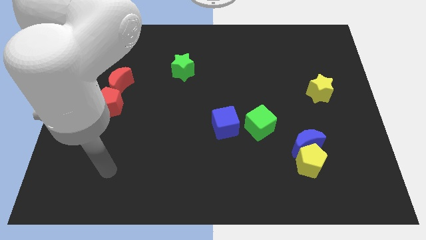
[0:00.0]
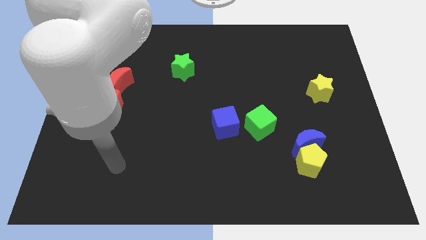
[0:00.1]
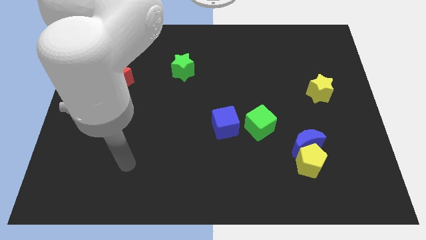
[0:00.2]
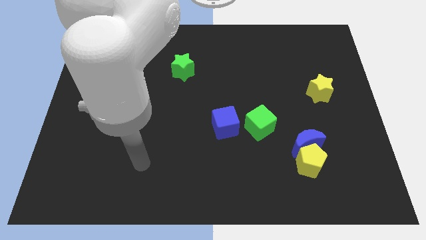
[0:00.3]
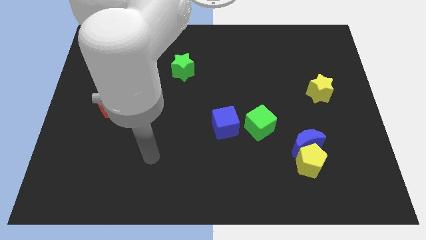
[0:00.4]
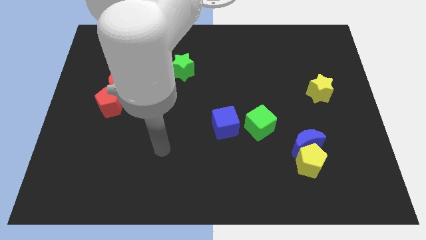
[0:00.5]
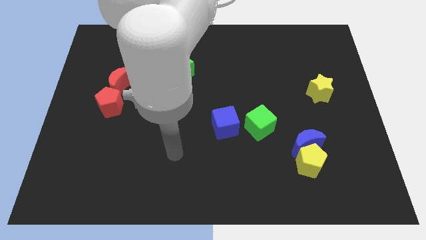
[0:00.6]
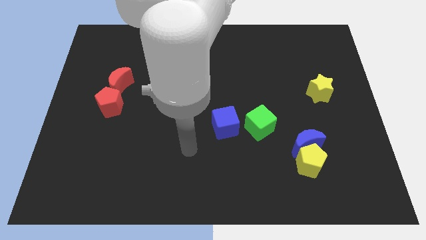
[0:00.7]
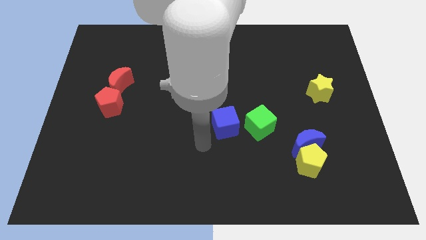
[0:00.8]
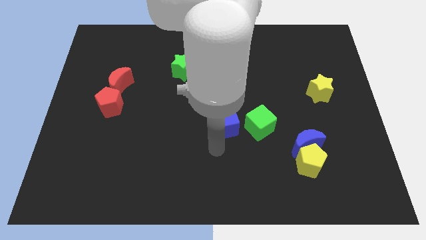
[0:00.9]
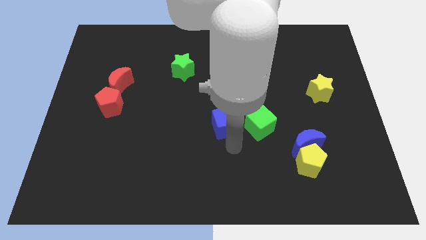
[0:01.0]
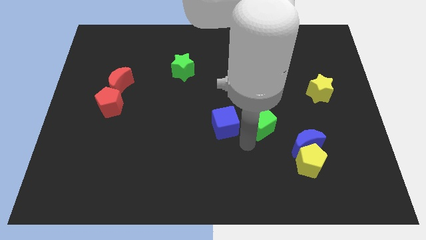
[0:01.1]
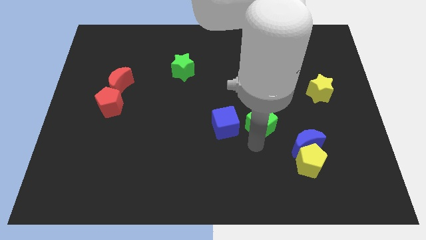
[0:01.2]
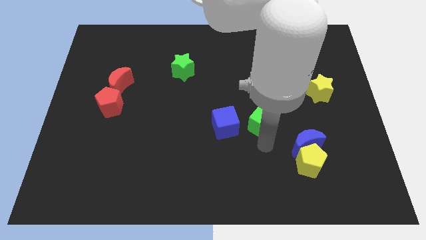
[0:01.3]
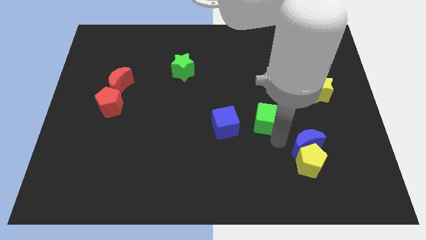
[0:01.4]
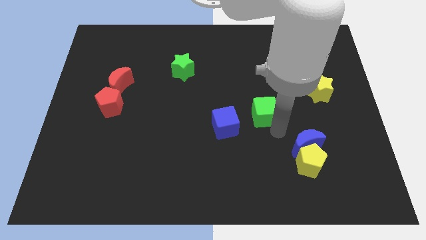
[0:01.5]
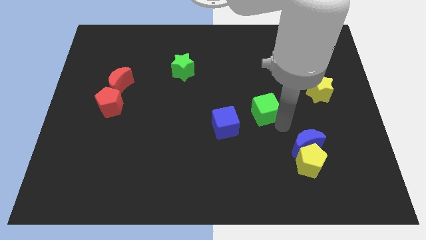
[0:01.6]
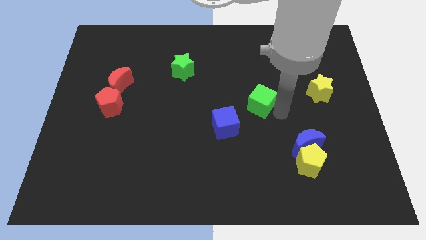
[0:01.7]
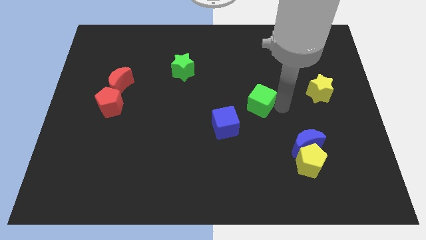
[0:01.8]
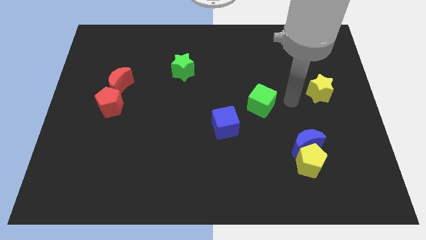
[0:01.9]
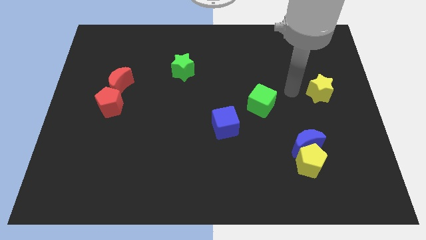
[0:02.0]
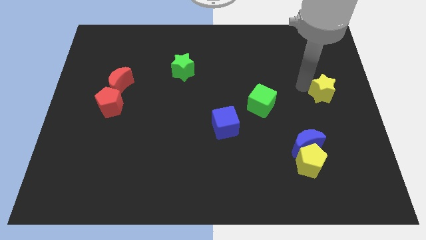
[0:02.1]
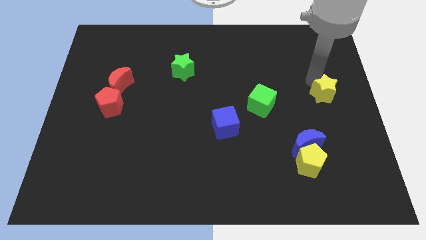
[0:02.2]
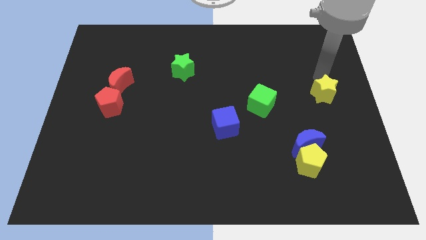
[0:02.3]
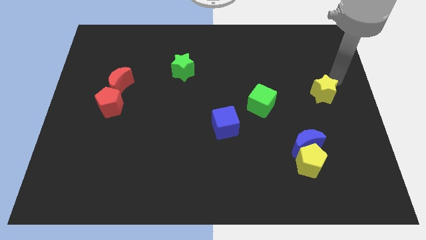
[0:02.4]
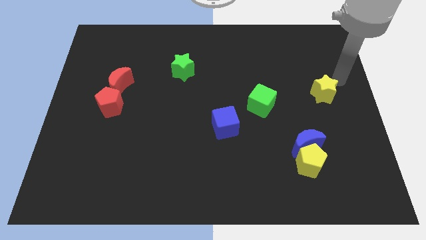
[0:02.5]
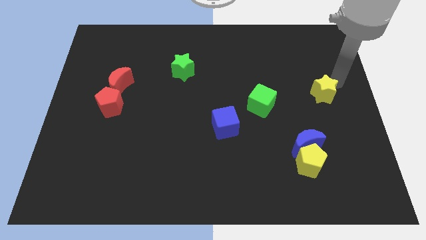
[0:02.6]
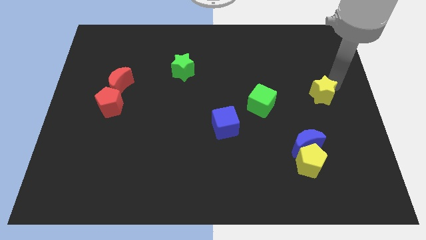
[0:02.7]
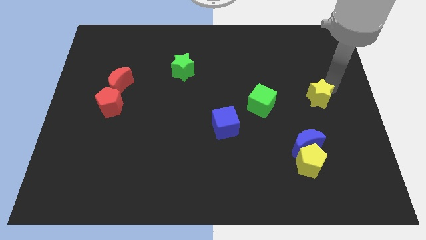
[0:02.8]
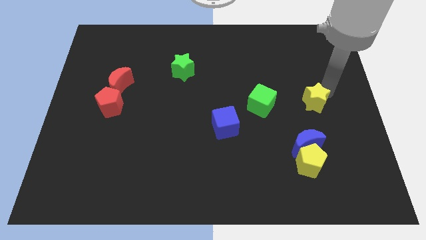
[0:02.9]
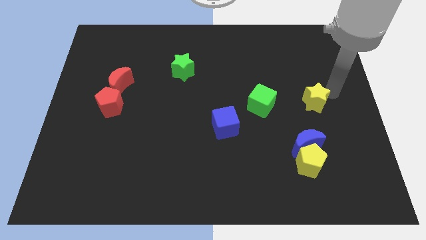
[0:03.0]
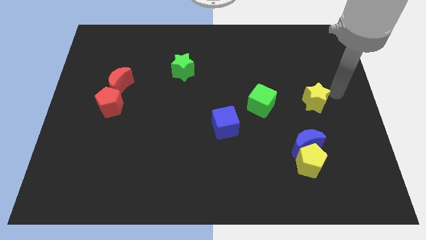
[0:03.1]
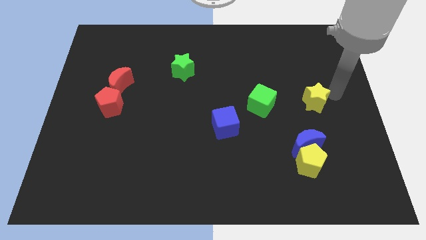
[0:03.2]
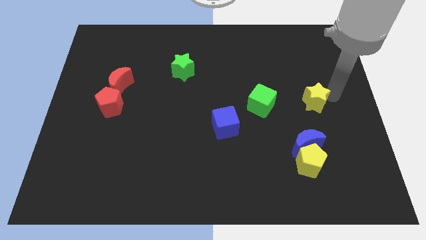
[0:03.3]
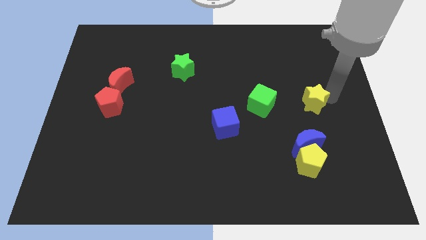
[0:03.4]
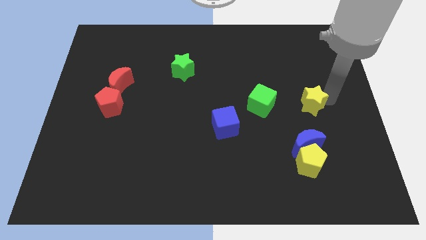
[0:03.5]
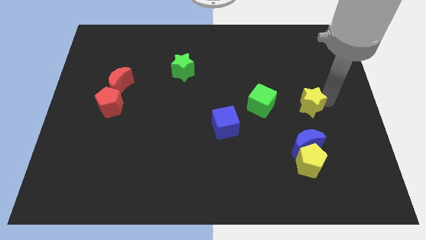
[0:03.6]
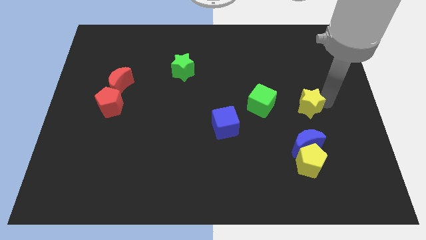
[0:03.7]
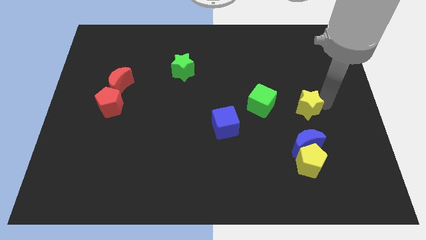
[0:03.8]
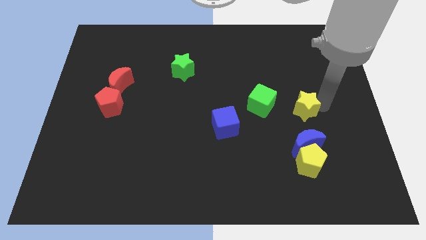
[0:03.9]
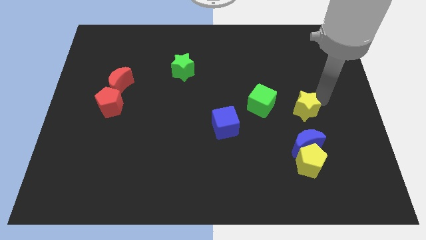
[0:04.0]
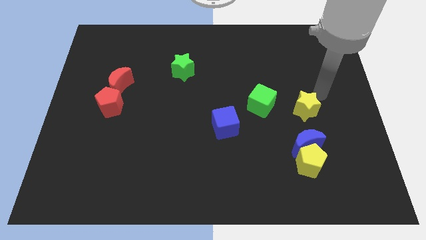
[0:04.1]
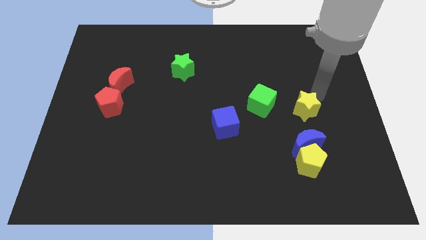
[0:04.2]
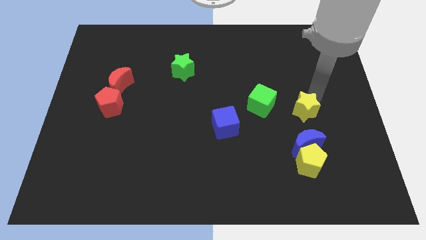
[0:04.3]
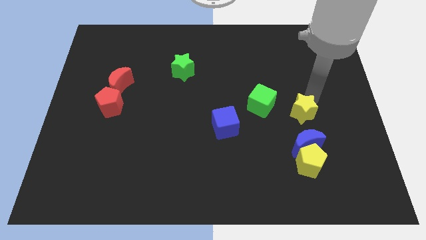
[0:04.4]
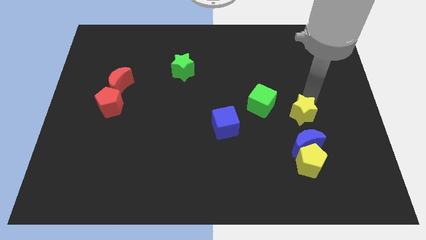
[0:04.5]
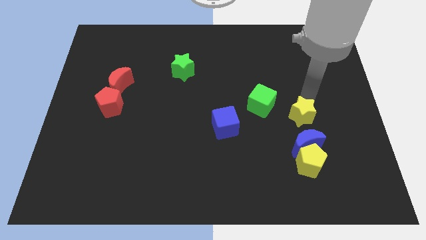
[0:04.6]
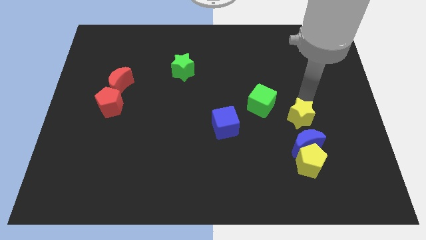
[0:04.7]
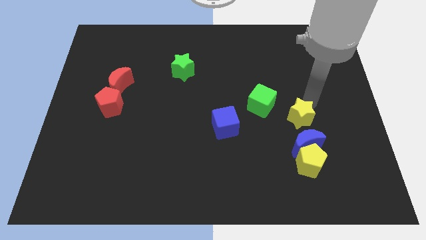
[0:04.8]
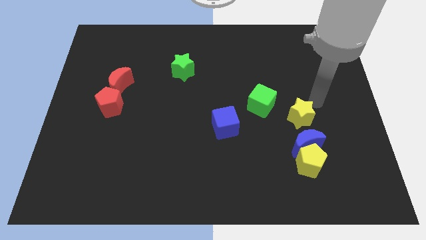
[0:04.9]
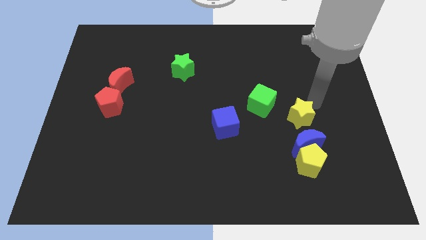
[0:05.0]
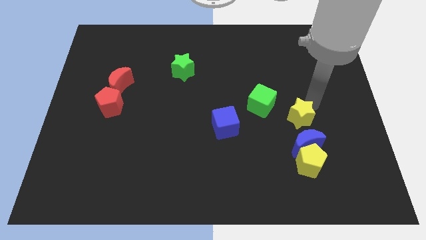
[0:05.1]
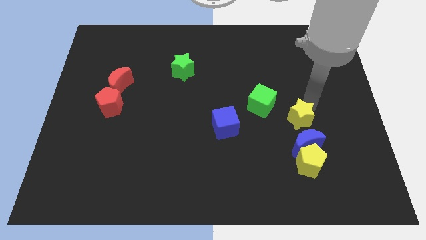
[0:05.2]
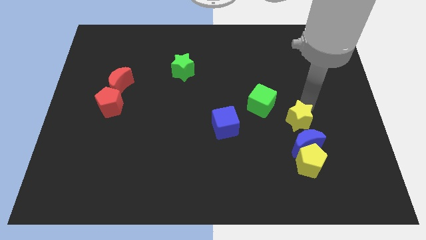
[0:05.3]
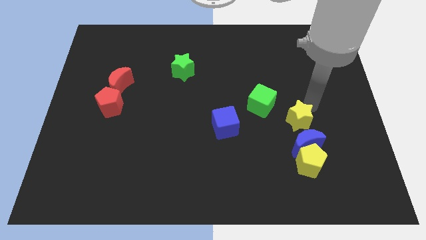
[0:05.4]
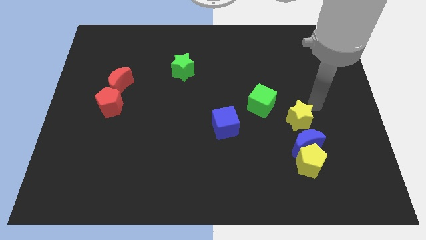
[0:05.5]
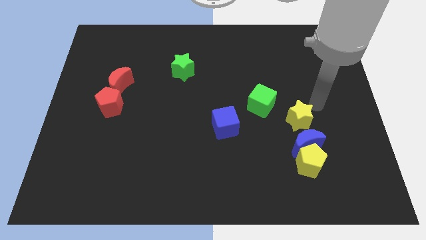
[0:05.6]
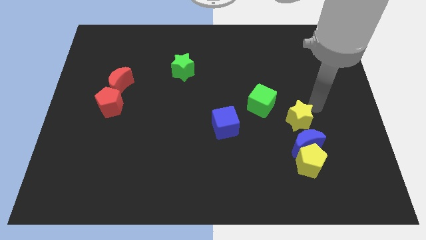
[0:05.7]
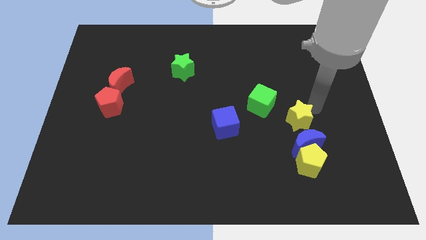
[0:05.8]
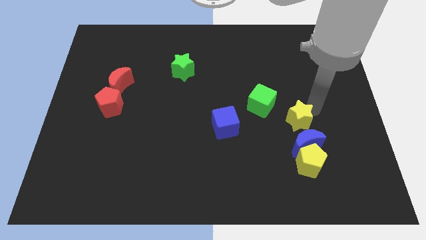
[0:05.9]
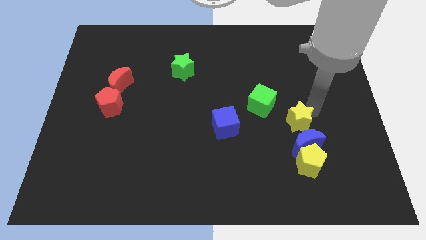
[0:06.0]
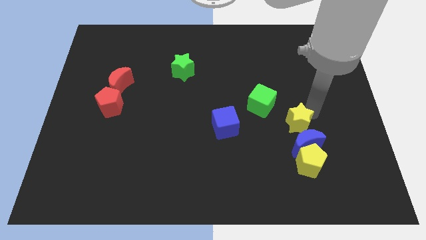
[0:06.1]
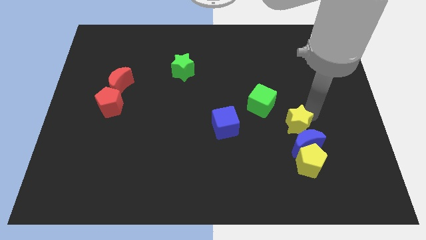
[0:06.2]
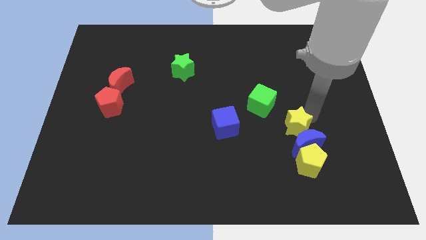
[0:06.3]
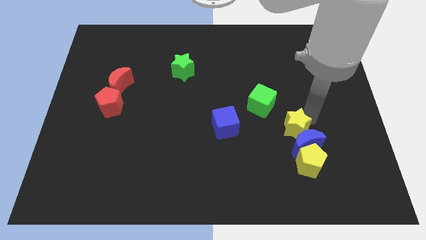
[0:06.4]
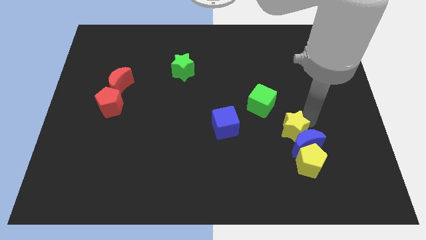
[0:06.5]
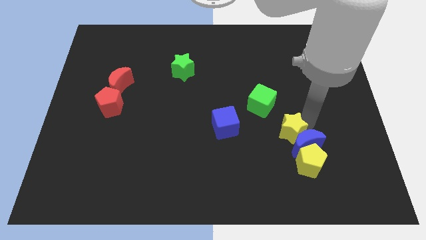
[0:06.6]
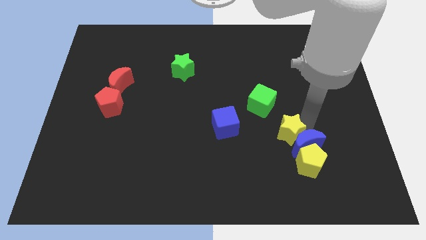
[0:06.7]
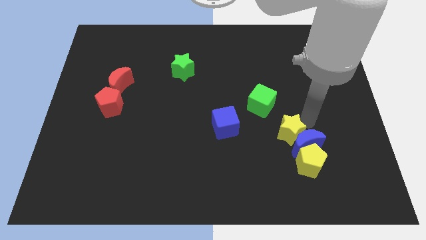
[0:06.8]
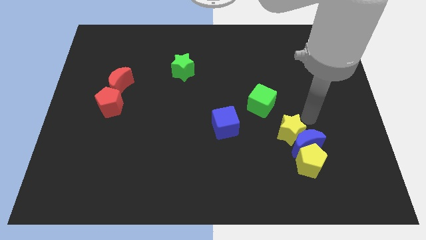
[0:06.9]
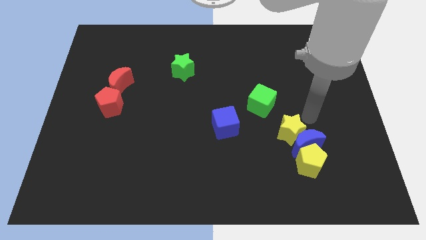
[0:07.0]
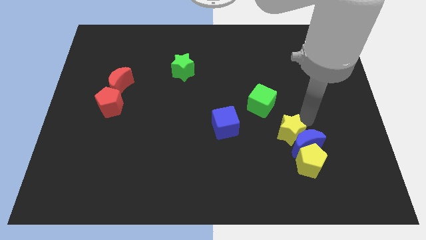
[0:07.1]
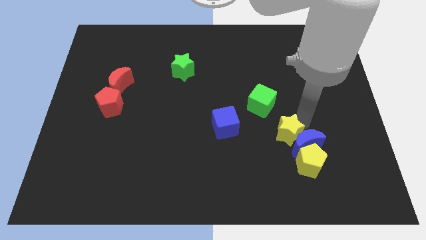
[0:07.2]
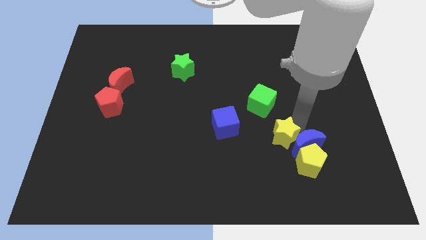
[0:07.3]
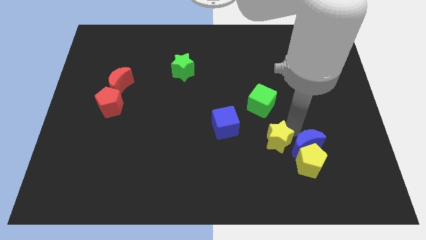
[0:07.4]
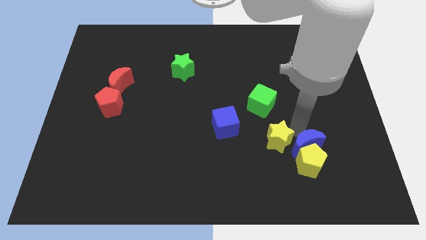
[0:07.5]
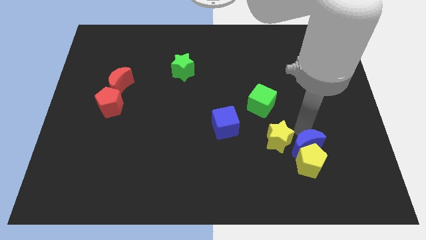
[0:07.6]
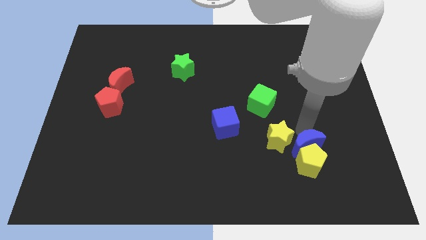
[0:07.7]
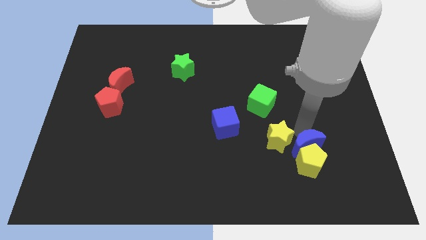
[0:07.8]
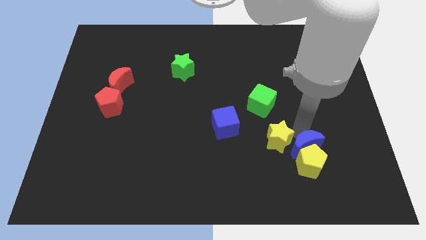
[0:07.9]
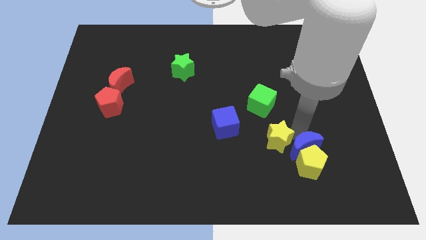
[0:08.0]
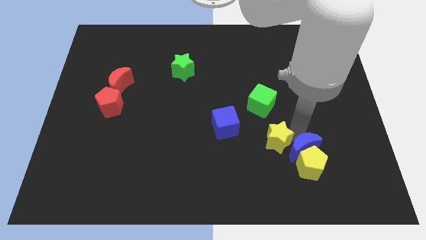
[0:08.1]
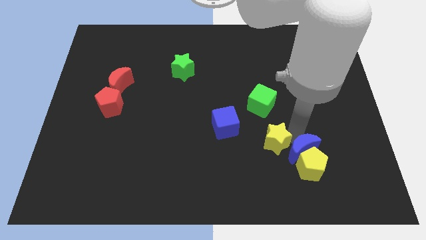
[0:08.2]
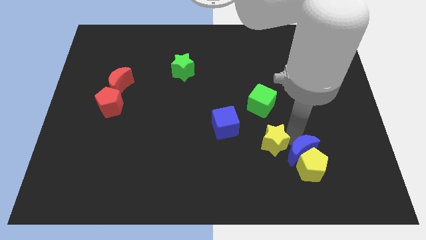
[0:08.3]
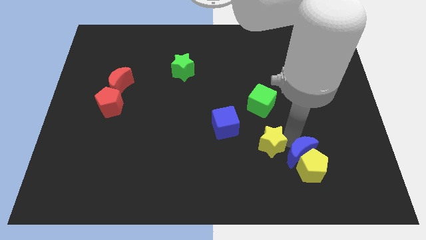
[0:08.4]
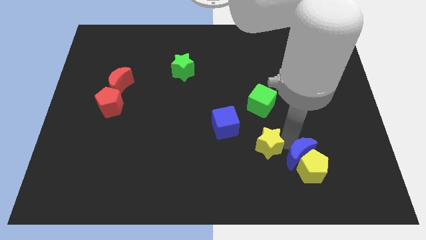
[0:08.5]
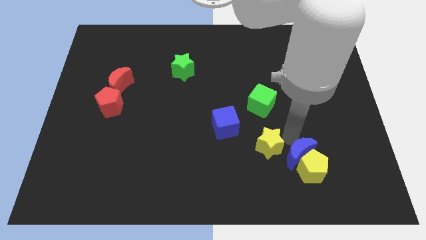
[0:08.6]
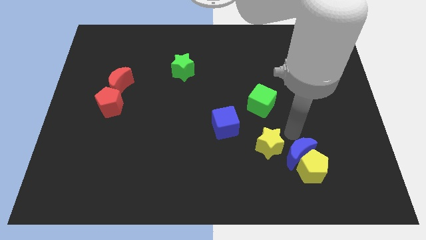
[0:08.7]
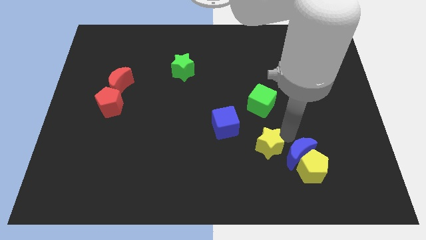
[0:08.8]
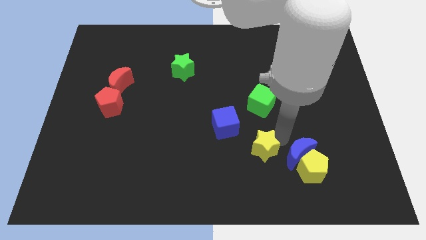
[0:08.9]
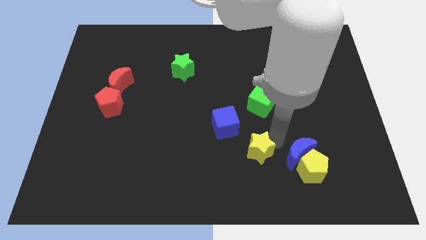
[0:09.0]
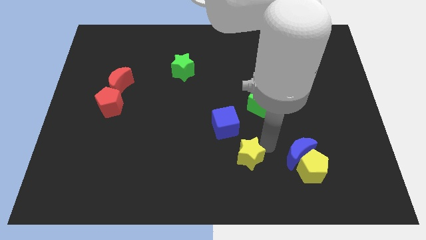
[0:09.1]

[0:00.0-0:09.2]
put the yellow star to the bottom side of the blue cube
